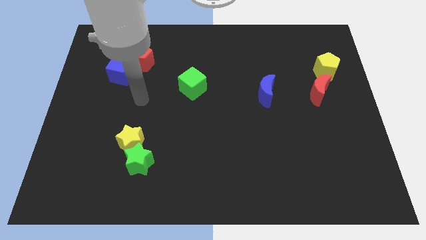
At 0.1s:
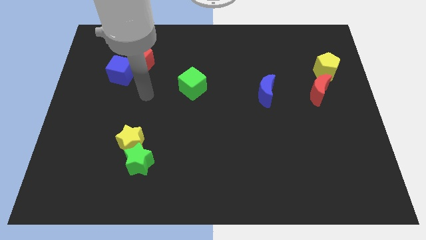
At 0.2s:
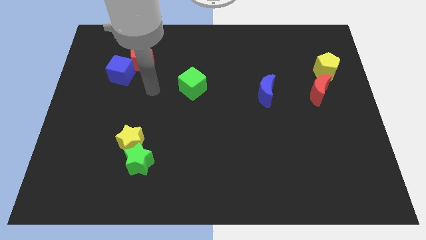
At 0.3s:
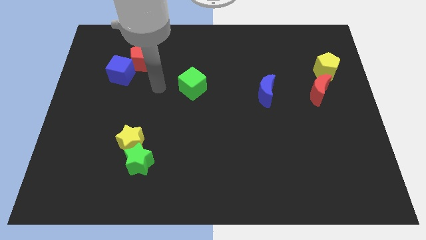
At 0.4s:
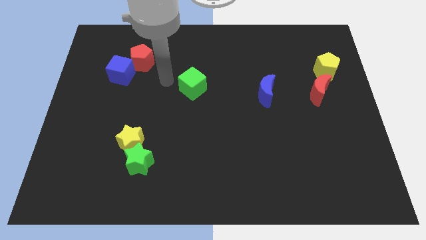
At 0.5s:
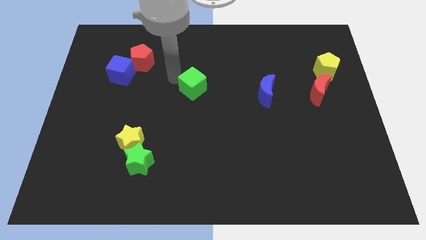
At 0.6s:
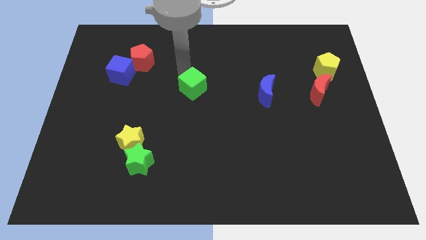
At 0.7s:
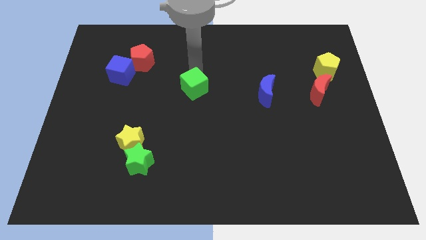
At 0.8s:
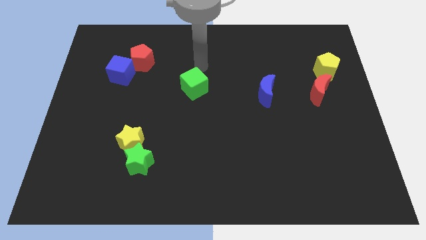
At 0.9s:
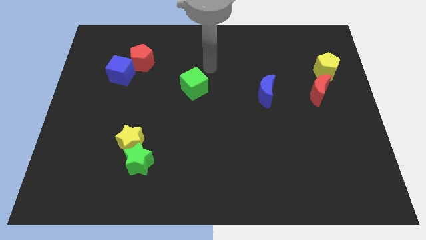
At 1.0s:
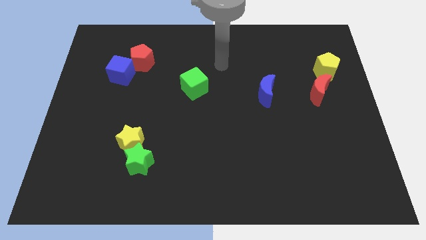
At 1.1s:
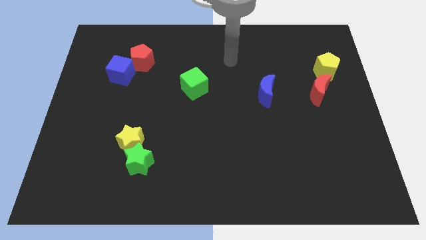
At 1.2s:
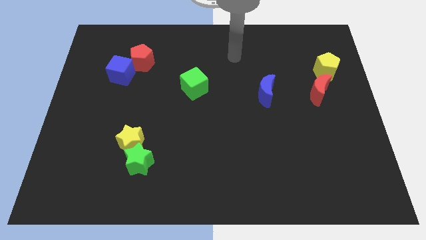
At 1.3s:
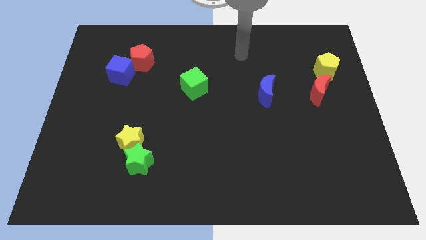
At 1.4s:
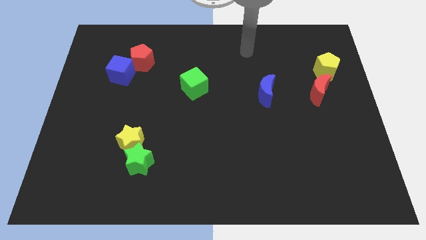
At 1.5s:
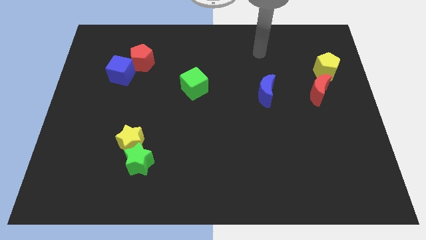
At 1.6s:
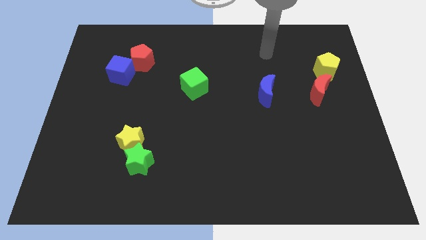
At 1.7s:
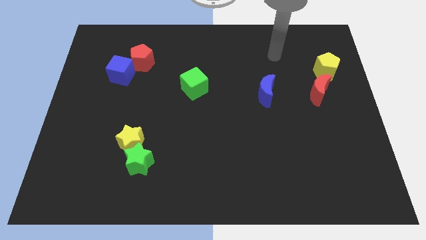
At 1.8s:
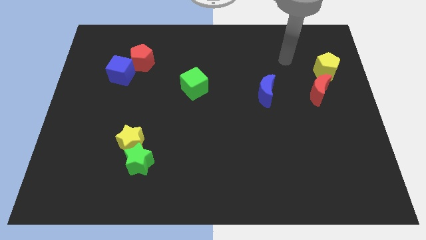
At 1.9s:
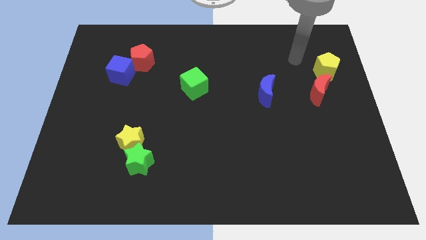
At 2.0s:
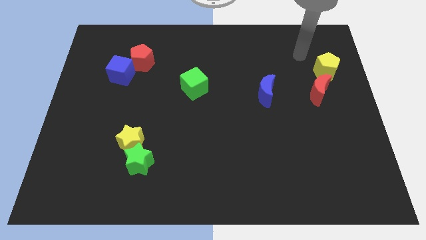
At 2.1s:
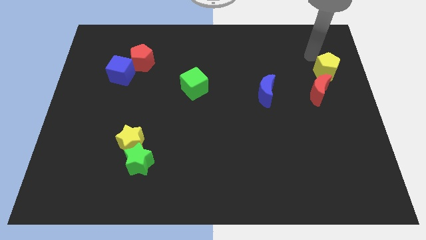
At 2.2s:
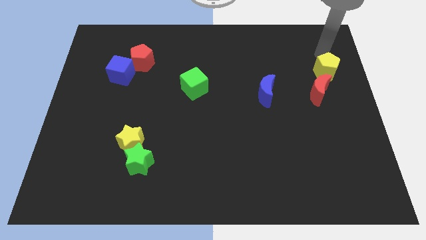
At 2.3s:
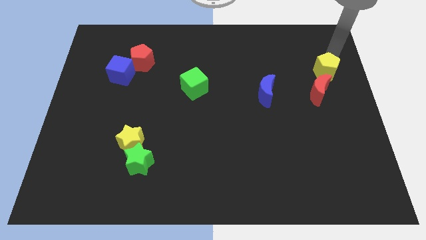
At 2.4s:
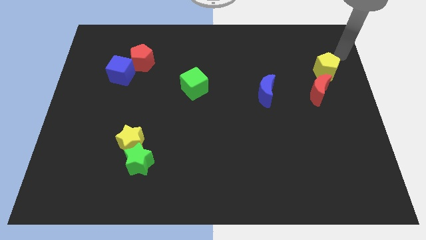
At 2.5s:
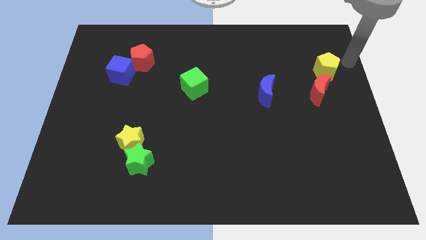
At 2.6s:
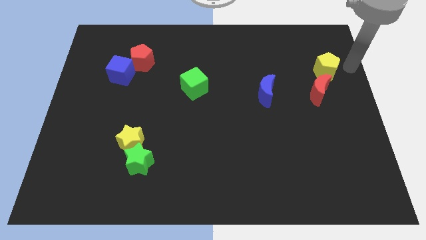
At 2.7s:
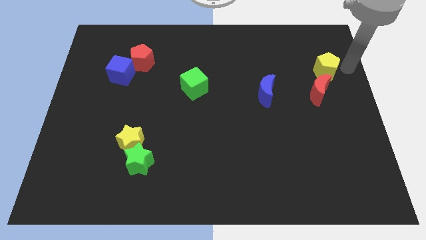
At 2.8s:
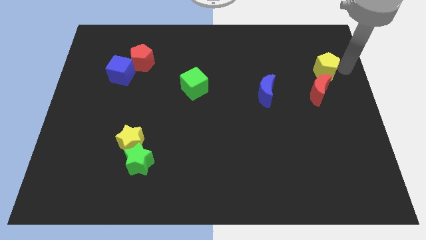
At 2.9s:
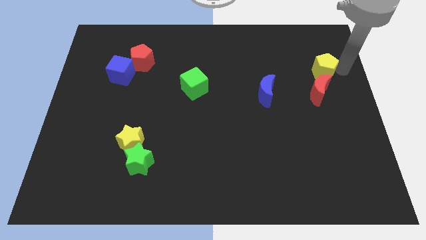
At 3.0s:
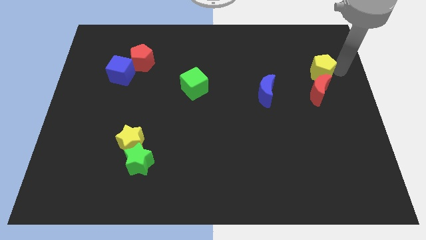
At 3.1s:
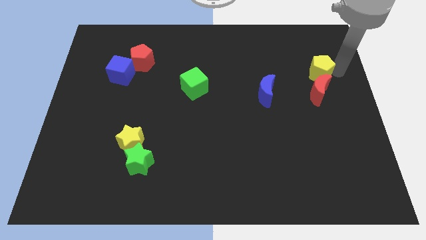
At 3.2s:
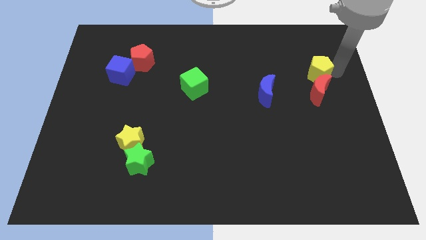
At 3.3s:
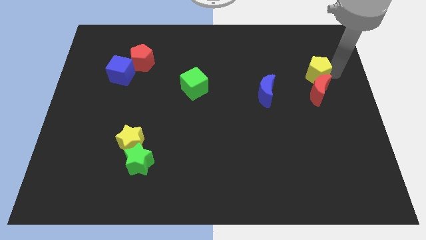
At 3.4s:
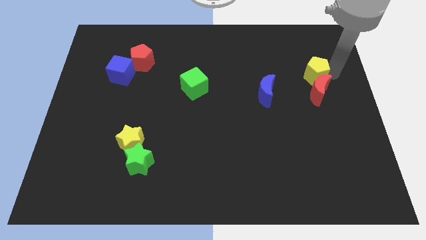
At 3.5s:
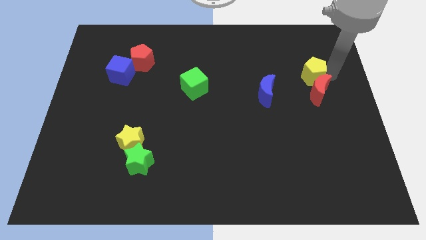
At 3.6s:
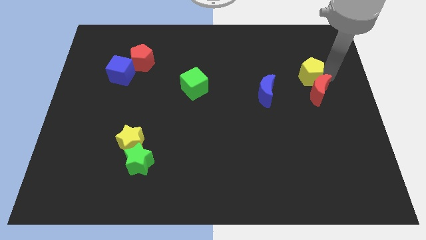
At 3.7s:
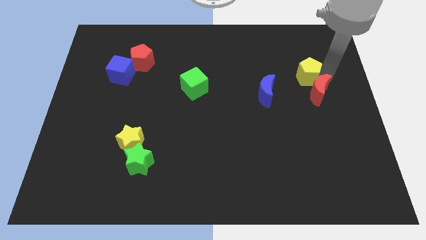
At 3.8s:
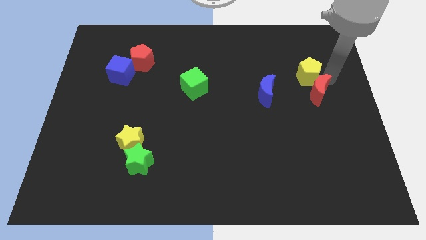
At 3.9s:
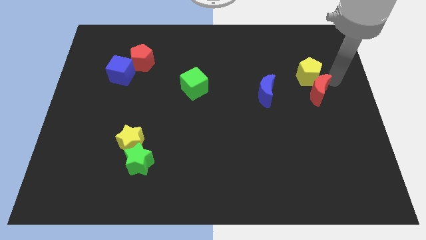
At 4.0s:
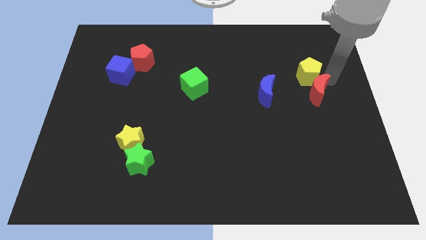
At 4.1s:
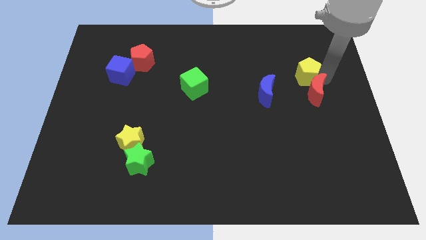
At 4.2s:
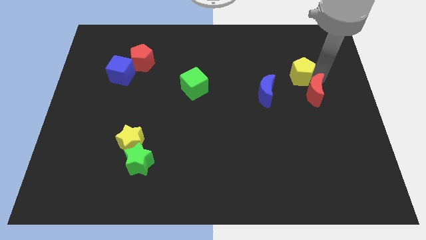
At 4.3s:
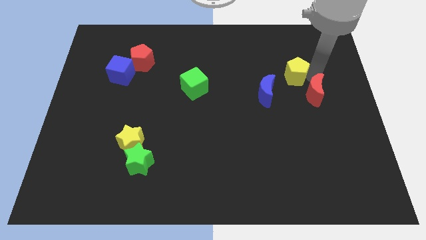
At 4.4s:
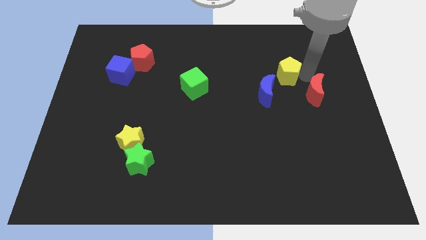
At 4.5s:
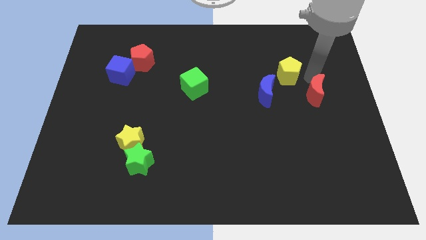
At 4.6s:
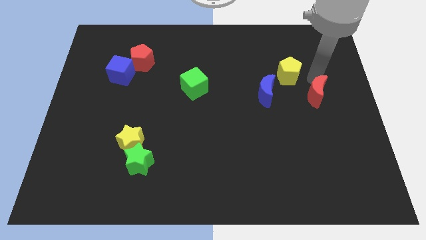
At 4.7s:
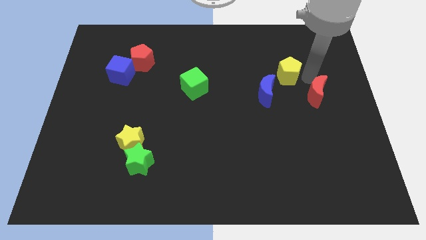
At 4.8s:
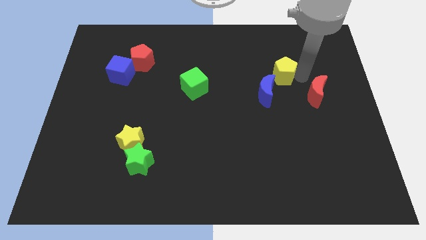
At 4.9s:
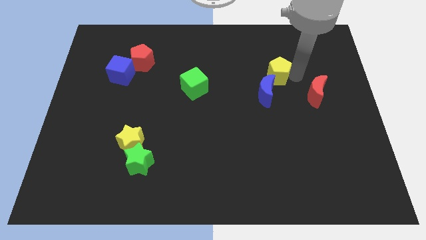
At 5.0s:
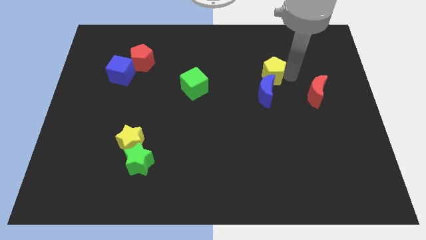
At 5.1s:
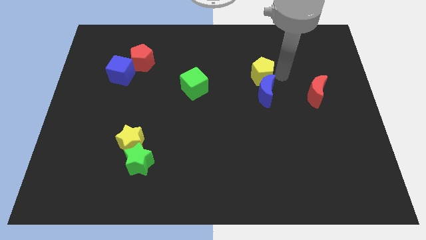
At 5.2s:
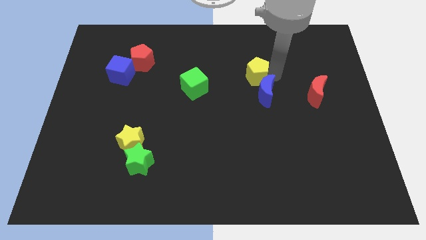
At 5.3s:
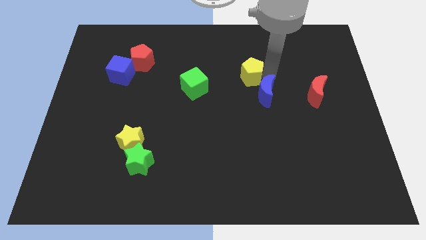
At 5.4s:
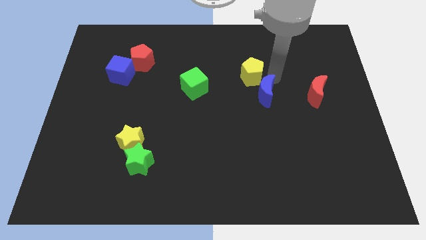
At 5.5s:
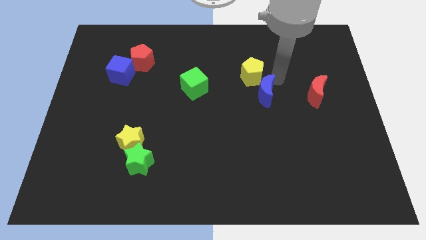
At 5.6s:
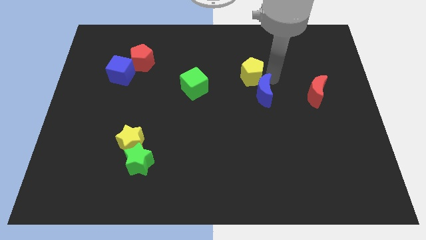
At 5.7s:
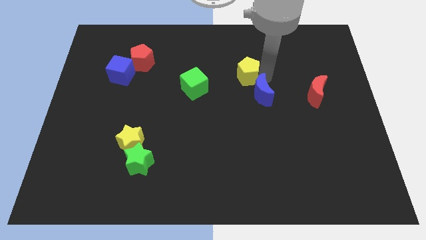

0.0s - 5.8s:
push the yellow pentagon to the left

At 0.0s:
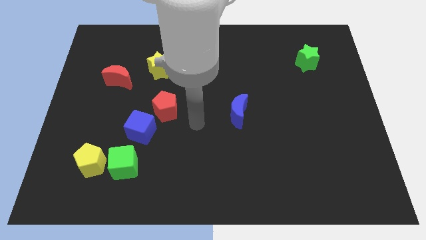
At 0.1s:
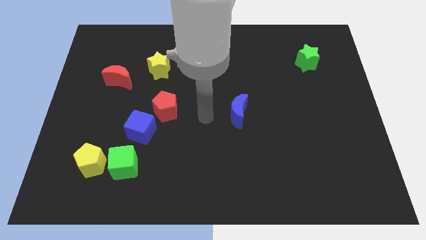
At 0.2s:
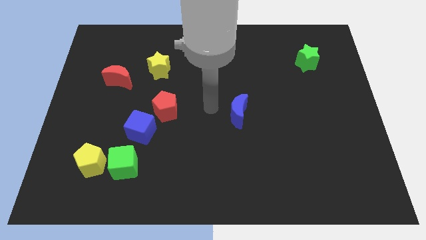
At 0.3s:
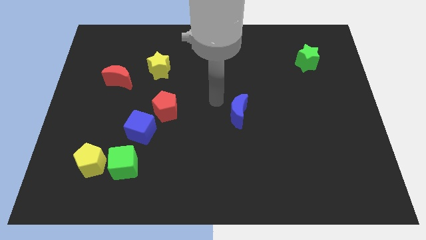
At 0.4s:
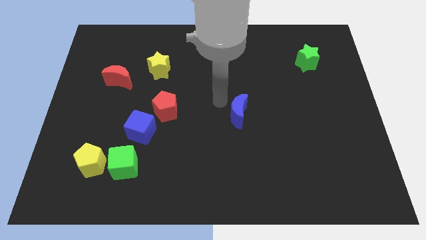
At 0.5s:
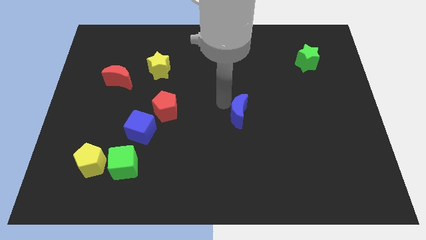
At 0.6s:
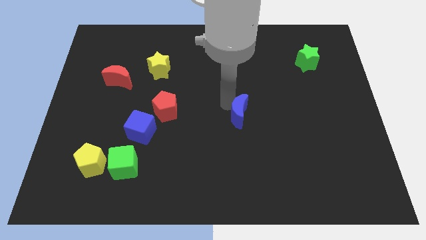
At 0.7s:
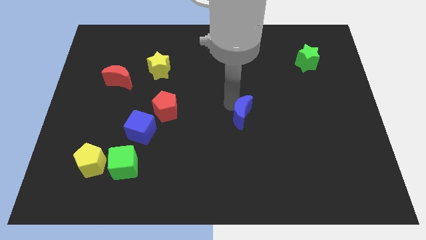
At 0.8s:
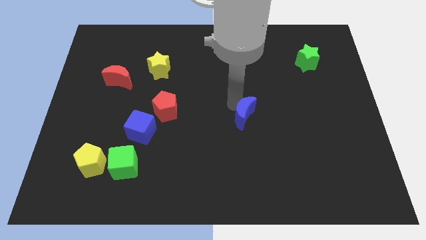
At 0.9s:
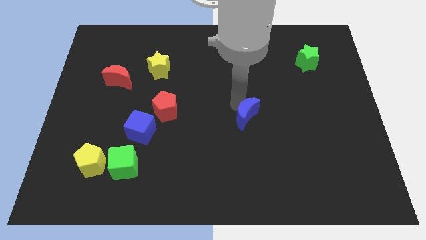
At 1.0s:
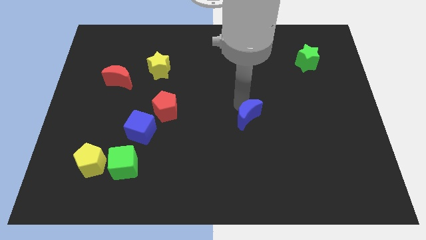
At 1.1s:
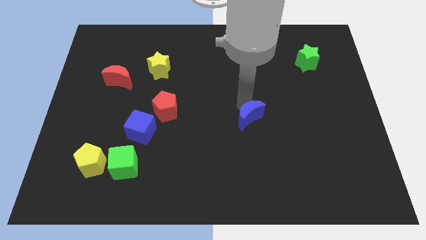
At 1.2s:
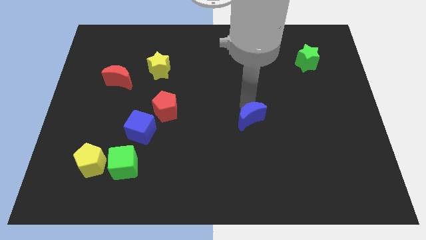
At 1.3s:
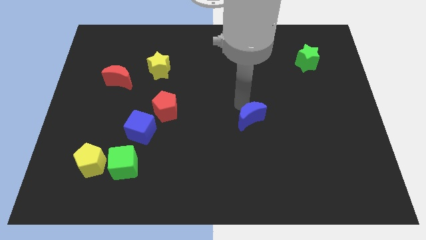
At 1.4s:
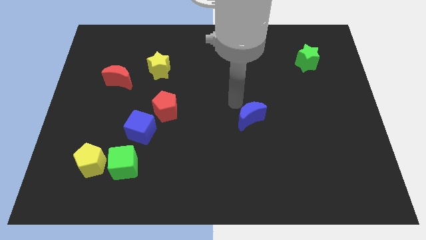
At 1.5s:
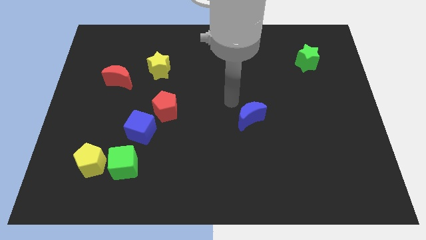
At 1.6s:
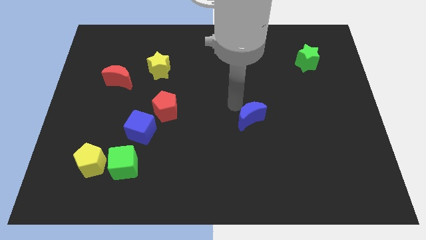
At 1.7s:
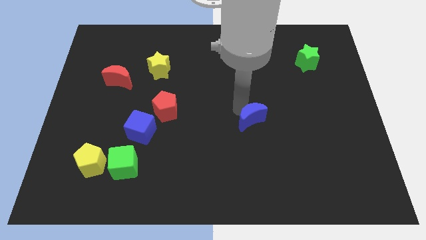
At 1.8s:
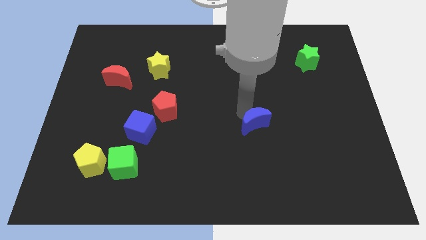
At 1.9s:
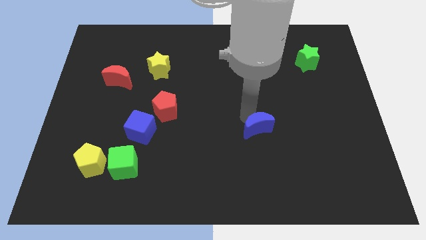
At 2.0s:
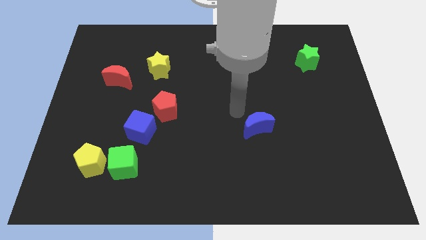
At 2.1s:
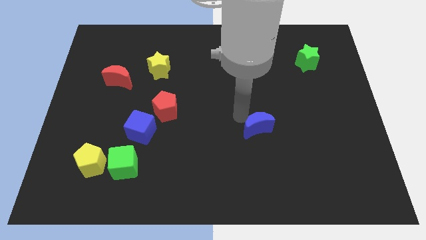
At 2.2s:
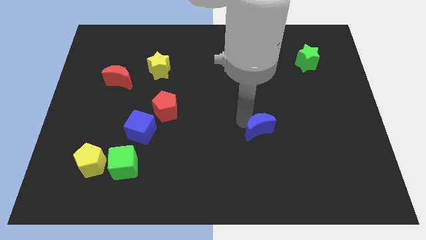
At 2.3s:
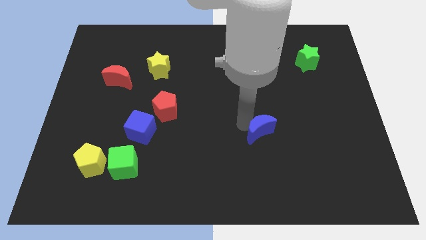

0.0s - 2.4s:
slightly push the blue moon down and right diagonally
